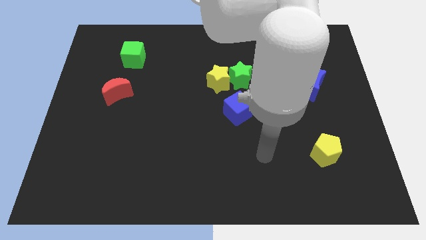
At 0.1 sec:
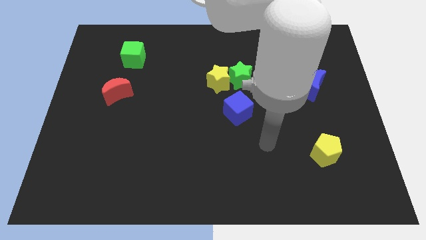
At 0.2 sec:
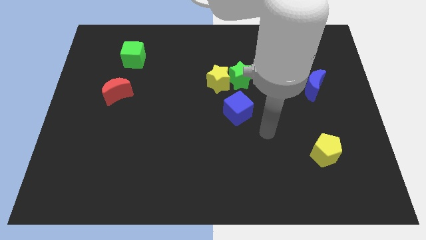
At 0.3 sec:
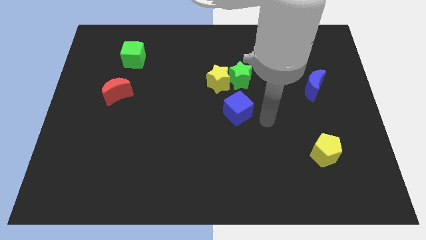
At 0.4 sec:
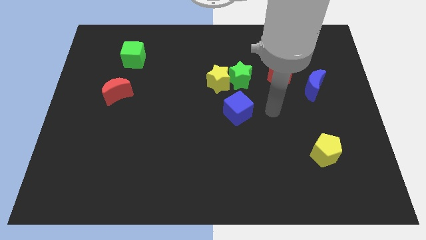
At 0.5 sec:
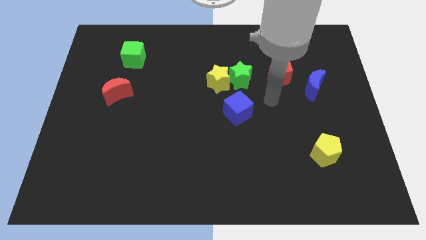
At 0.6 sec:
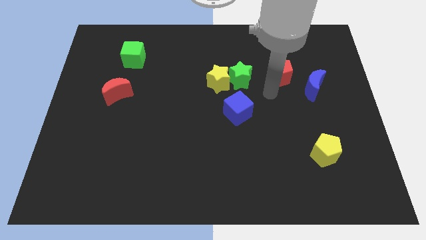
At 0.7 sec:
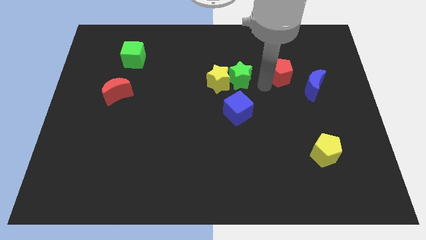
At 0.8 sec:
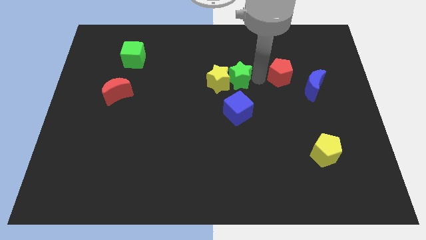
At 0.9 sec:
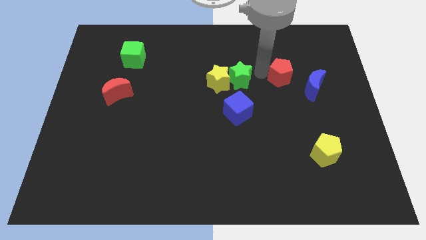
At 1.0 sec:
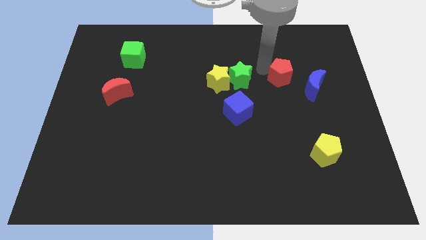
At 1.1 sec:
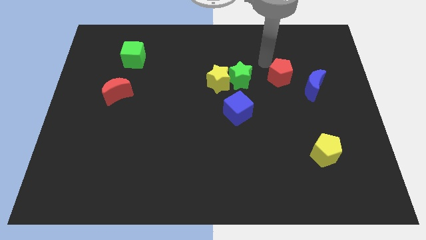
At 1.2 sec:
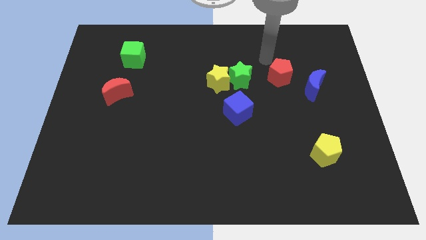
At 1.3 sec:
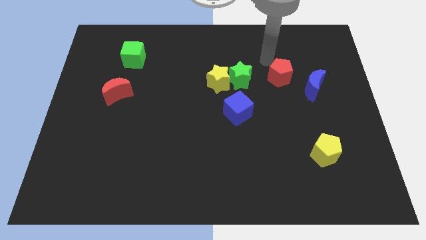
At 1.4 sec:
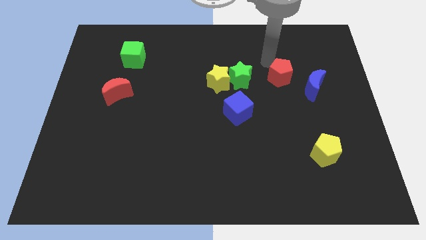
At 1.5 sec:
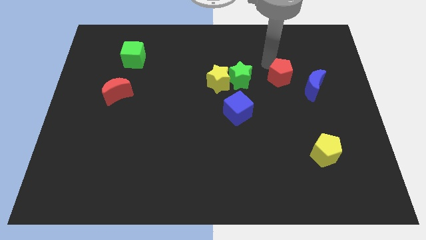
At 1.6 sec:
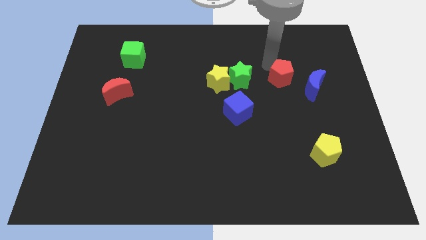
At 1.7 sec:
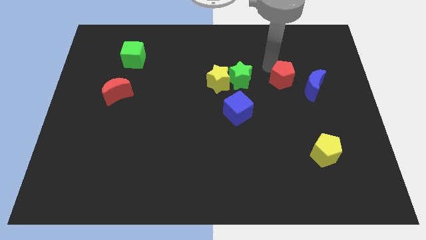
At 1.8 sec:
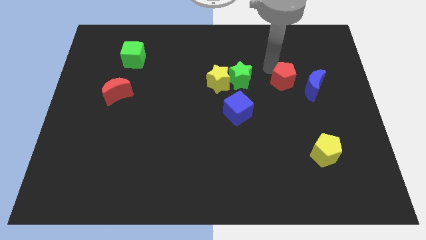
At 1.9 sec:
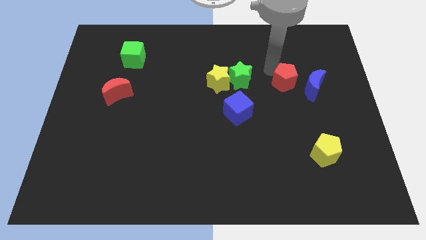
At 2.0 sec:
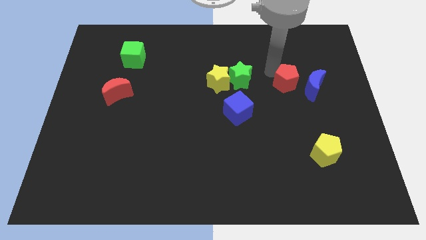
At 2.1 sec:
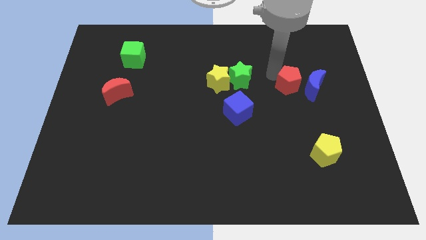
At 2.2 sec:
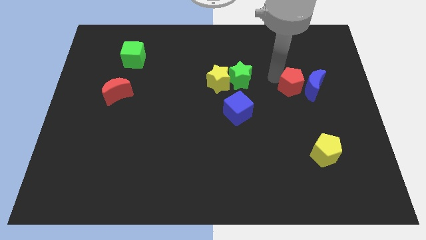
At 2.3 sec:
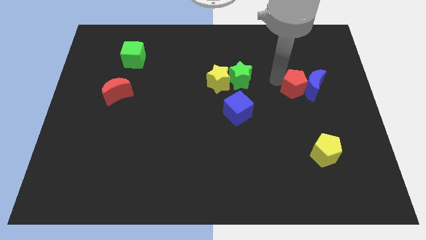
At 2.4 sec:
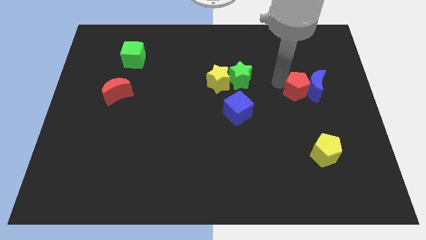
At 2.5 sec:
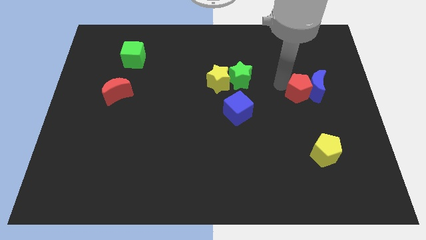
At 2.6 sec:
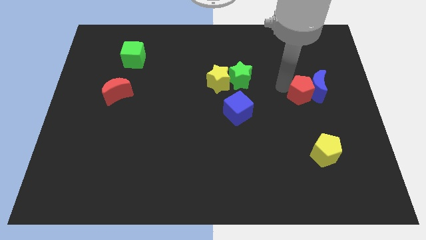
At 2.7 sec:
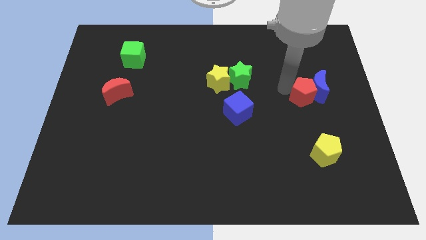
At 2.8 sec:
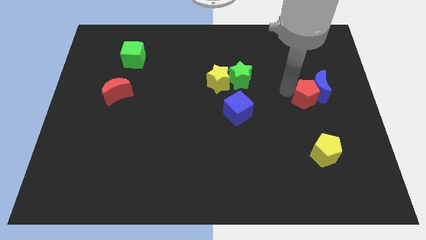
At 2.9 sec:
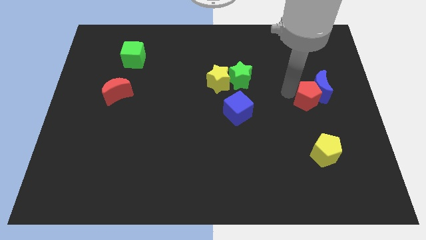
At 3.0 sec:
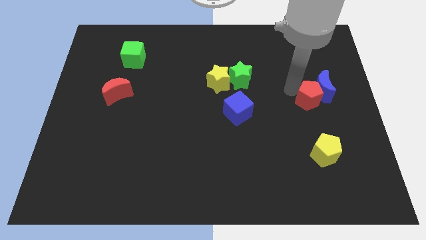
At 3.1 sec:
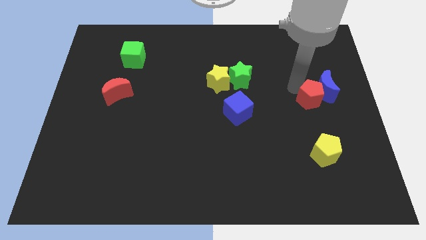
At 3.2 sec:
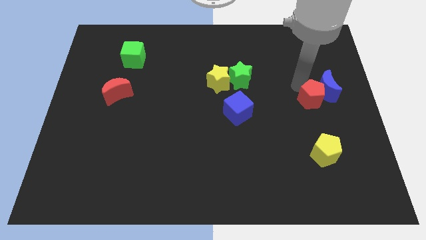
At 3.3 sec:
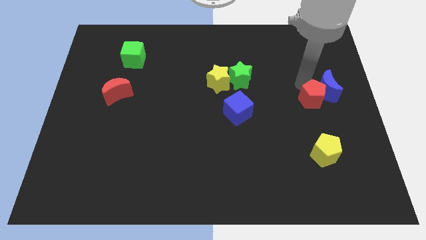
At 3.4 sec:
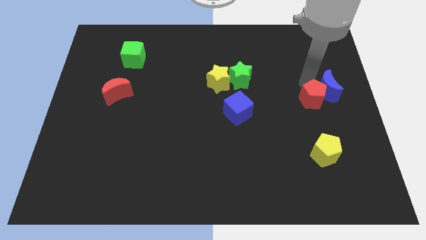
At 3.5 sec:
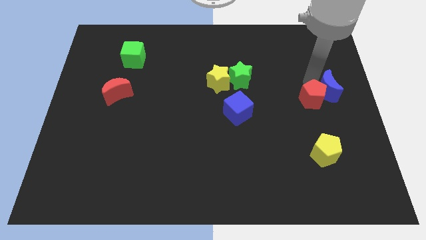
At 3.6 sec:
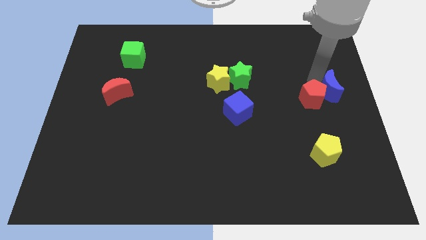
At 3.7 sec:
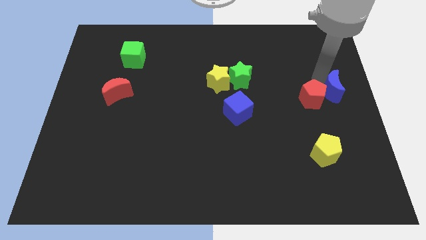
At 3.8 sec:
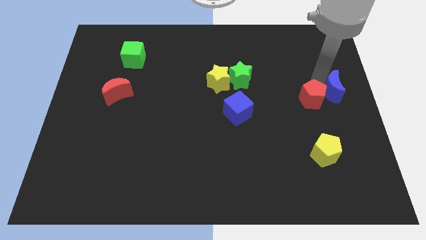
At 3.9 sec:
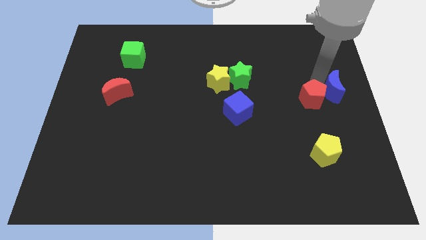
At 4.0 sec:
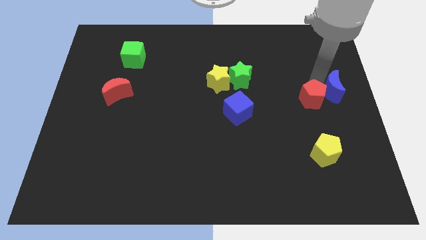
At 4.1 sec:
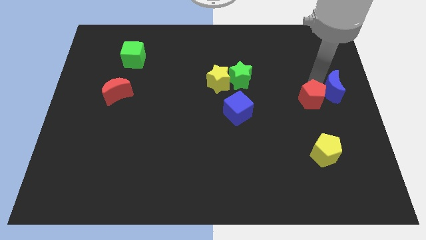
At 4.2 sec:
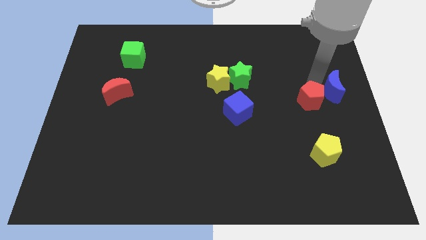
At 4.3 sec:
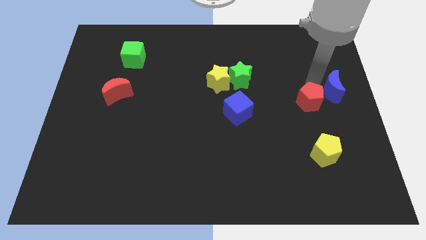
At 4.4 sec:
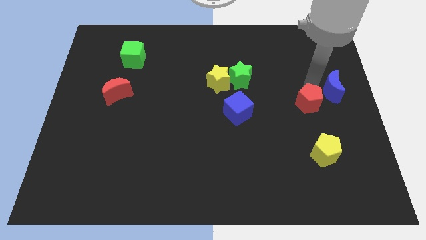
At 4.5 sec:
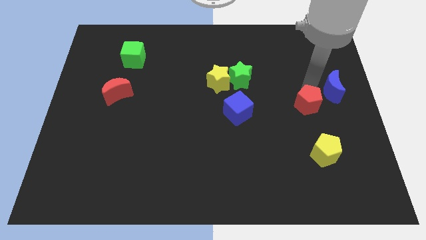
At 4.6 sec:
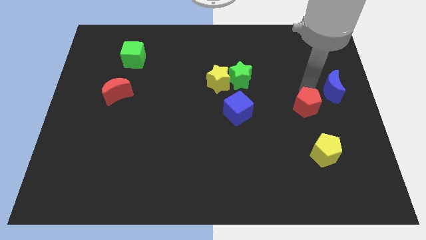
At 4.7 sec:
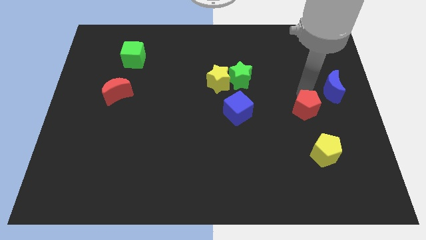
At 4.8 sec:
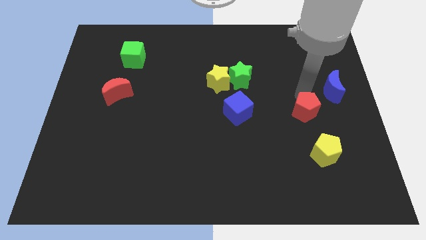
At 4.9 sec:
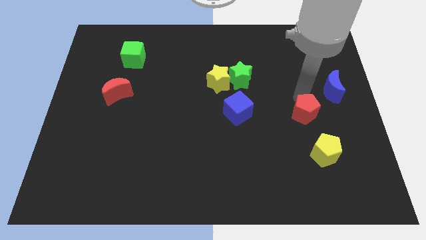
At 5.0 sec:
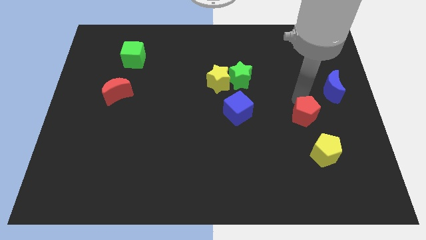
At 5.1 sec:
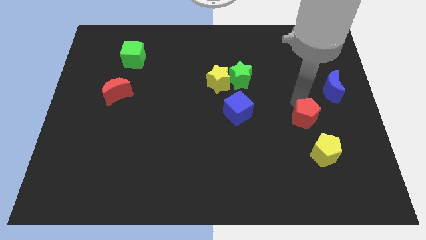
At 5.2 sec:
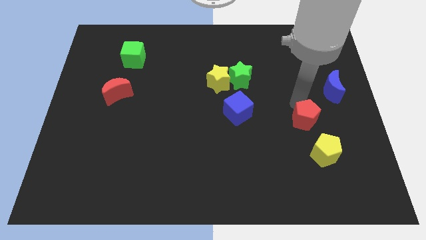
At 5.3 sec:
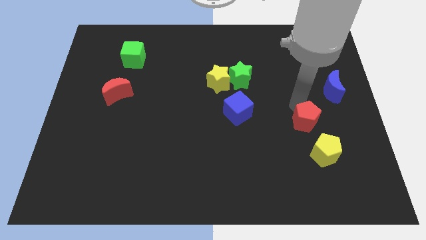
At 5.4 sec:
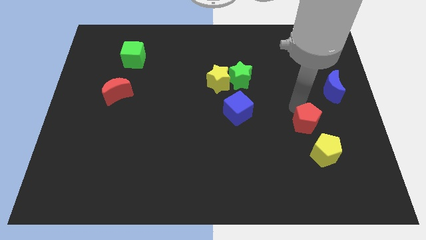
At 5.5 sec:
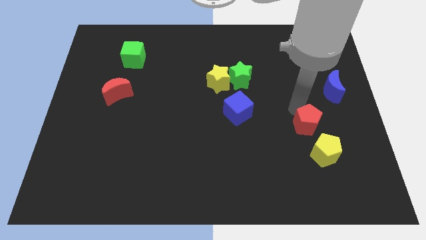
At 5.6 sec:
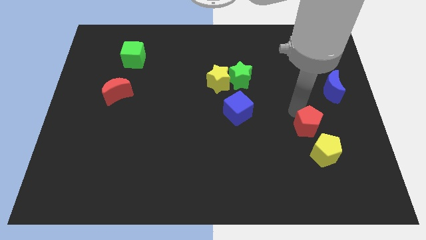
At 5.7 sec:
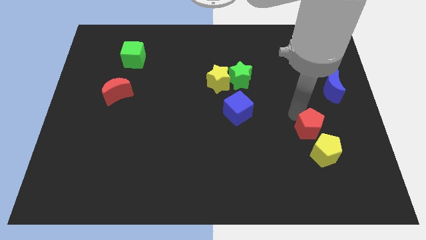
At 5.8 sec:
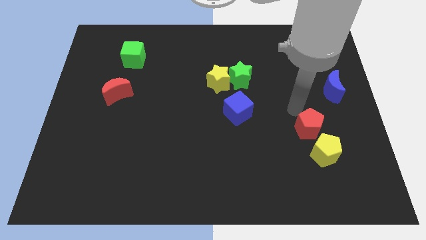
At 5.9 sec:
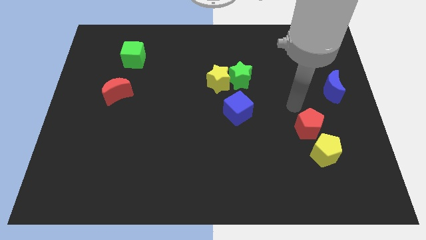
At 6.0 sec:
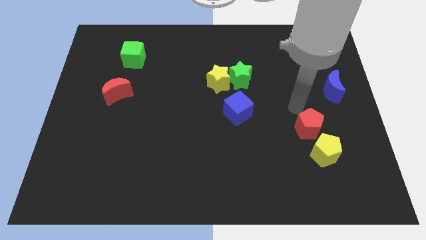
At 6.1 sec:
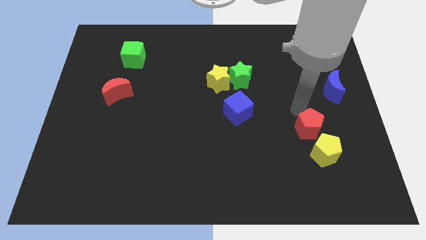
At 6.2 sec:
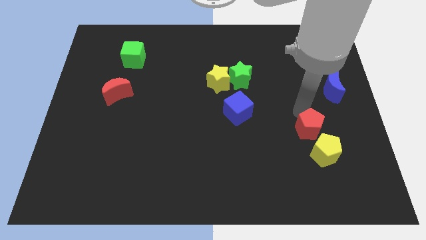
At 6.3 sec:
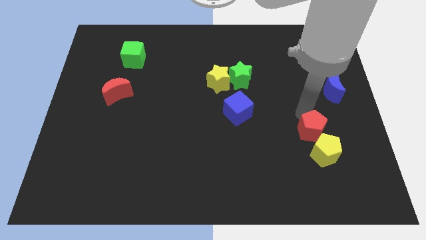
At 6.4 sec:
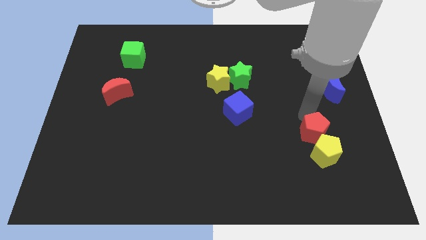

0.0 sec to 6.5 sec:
push the red pentagon next to the yellow pentagon
